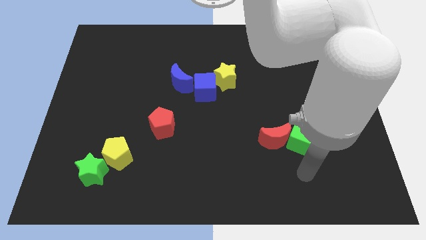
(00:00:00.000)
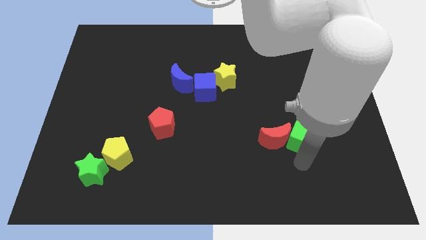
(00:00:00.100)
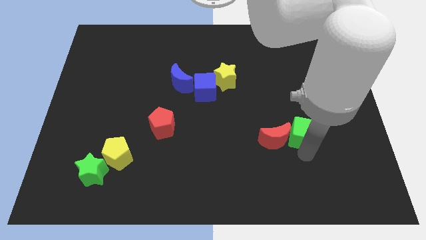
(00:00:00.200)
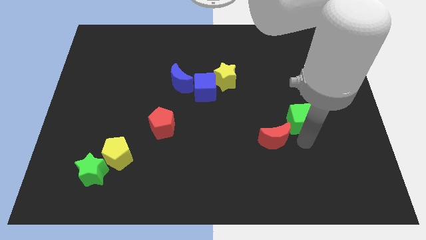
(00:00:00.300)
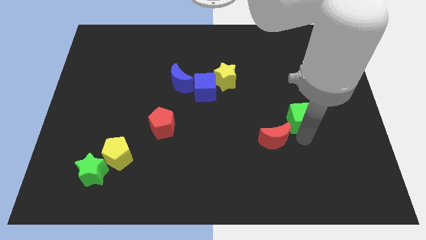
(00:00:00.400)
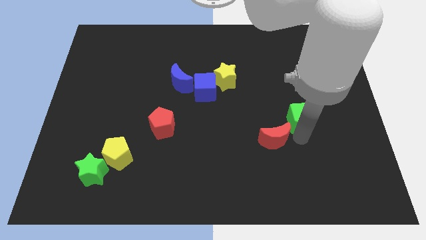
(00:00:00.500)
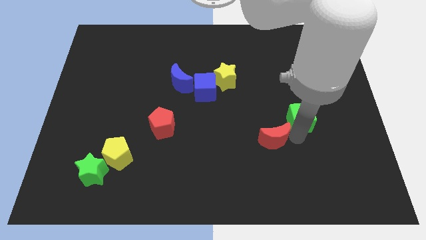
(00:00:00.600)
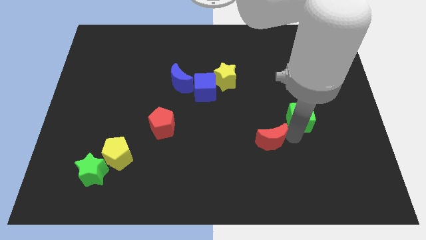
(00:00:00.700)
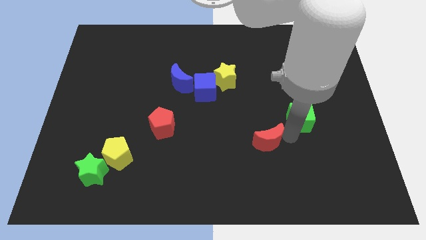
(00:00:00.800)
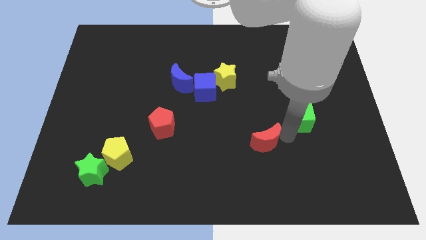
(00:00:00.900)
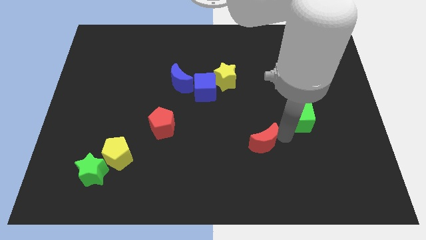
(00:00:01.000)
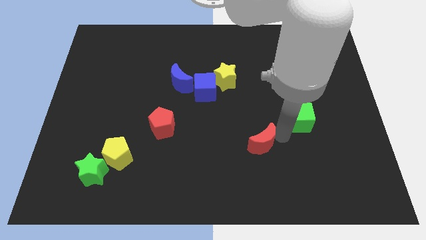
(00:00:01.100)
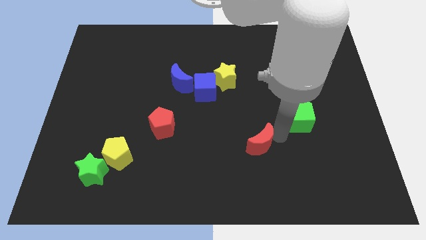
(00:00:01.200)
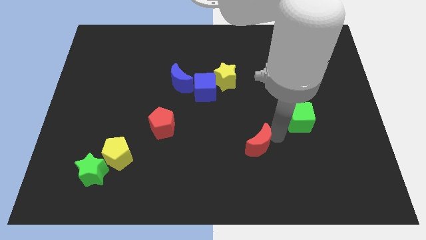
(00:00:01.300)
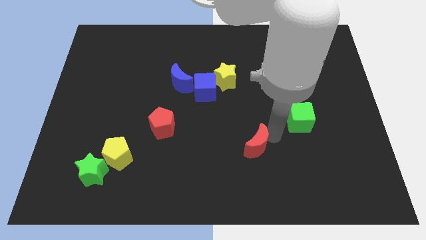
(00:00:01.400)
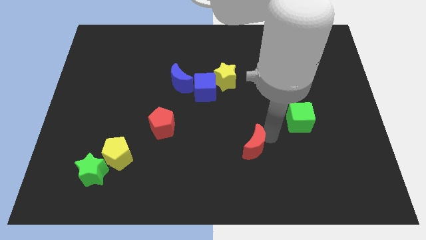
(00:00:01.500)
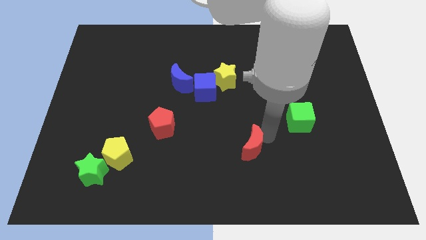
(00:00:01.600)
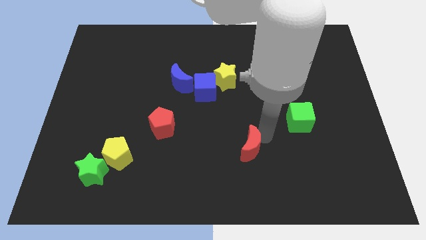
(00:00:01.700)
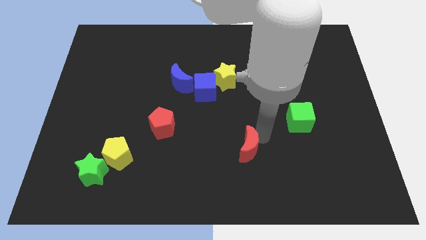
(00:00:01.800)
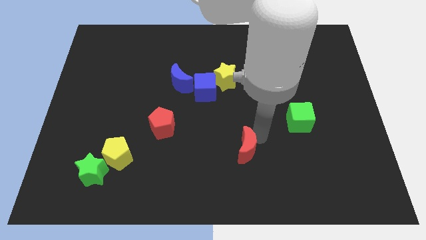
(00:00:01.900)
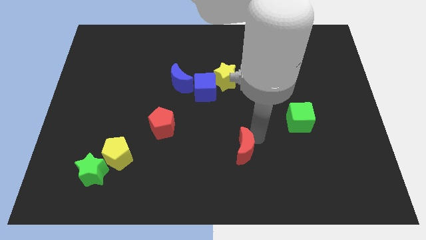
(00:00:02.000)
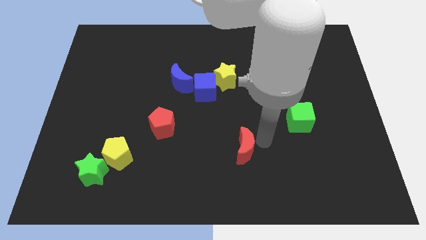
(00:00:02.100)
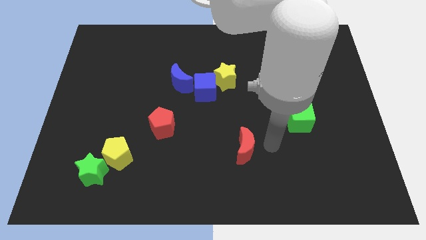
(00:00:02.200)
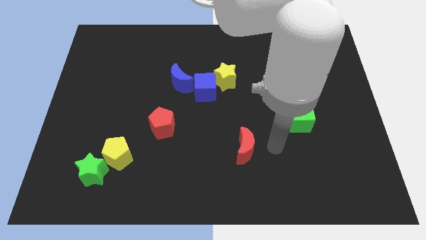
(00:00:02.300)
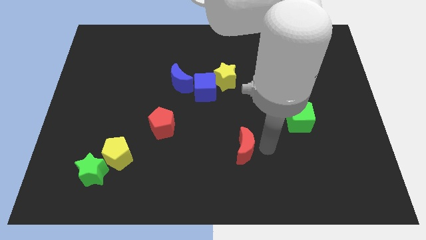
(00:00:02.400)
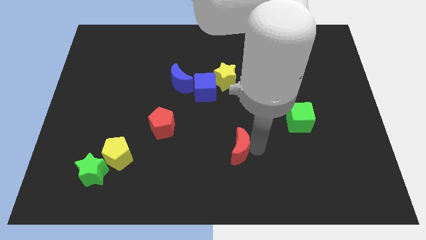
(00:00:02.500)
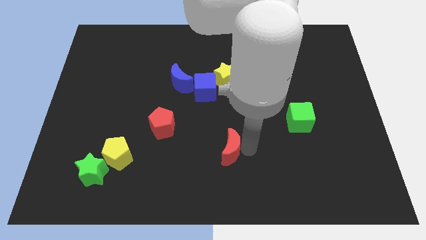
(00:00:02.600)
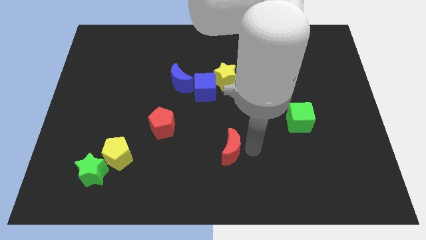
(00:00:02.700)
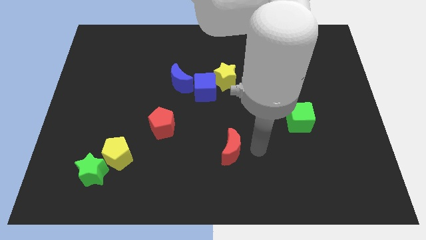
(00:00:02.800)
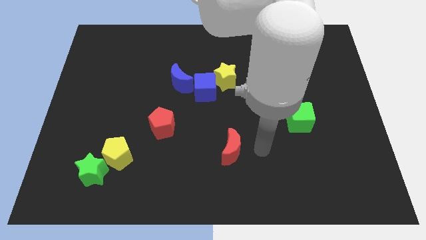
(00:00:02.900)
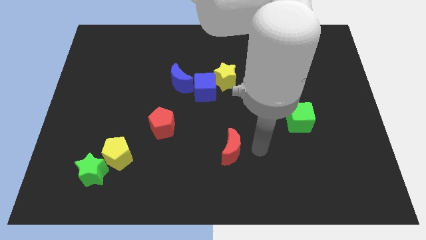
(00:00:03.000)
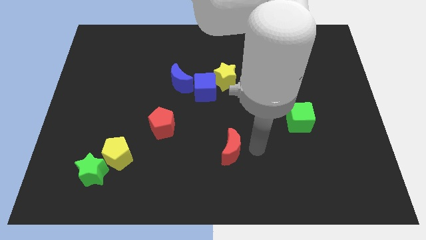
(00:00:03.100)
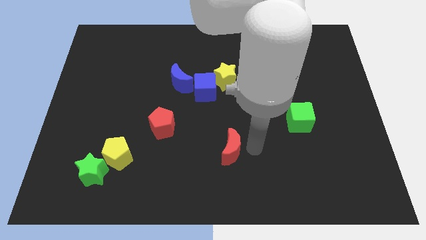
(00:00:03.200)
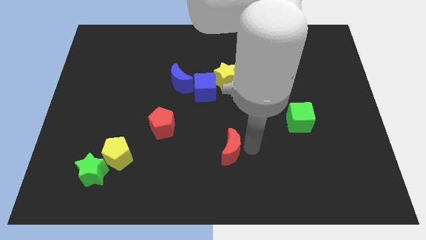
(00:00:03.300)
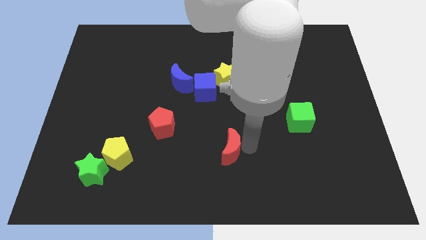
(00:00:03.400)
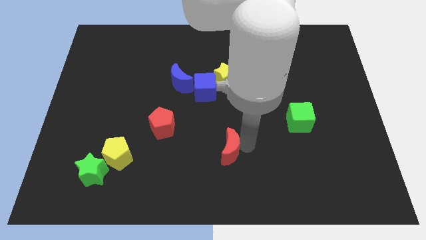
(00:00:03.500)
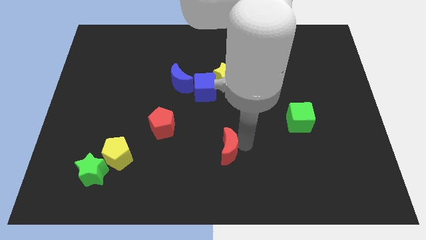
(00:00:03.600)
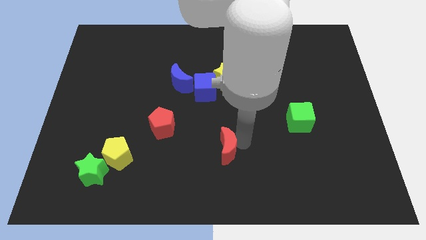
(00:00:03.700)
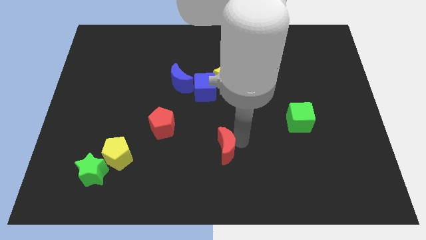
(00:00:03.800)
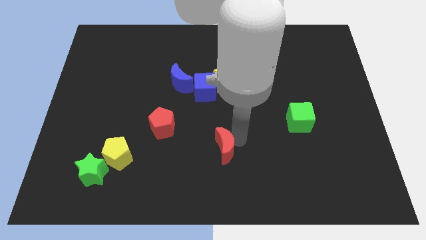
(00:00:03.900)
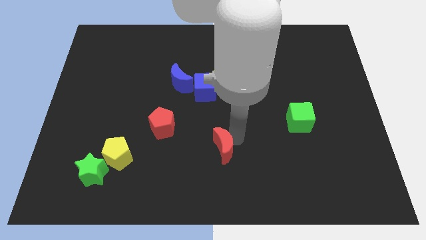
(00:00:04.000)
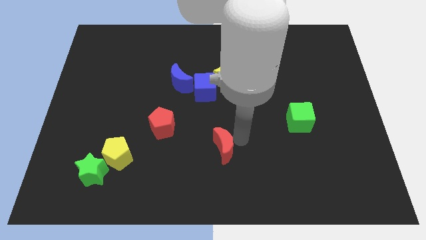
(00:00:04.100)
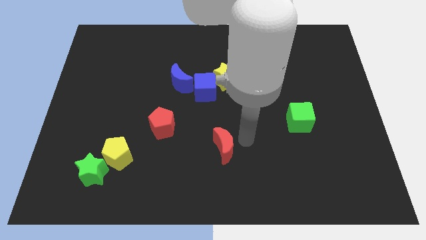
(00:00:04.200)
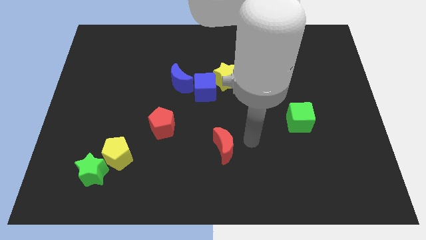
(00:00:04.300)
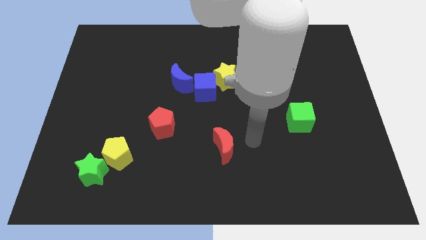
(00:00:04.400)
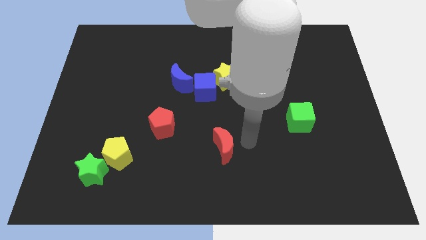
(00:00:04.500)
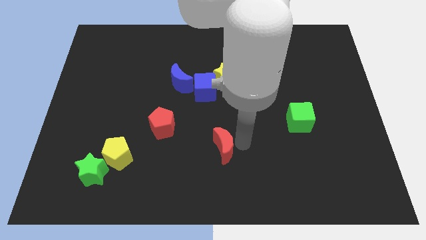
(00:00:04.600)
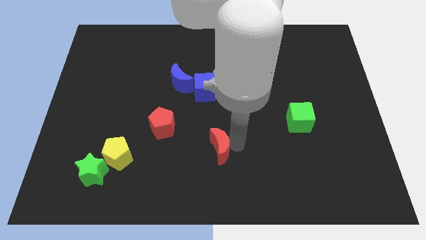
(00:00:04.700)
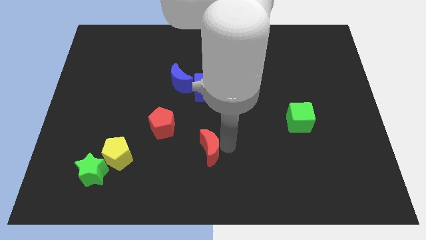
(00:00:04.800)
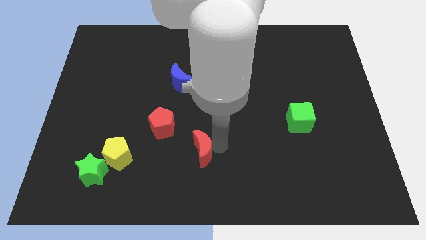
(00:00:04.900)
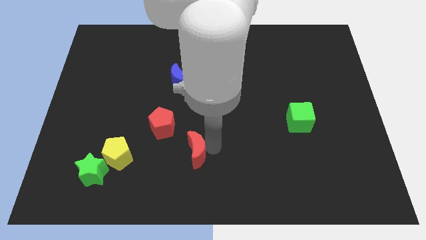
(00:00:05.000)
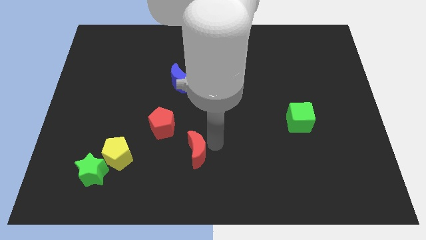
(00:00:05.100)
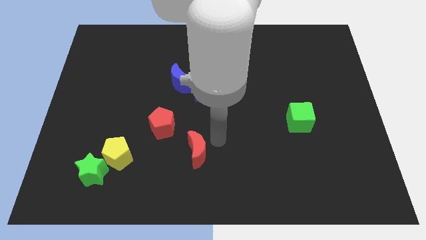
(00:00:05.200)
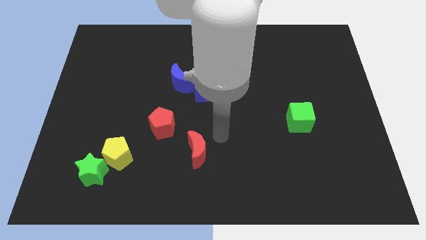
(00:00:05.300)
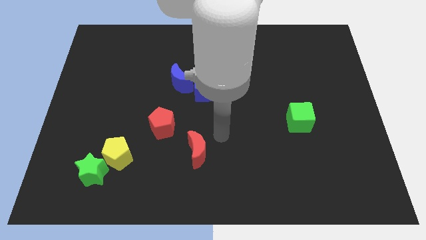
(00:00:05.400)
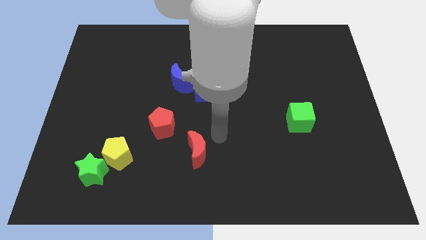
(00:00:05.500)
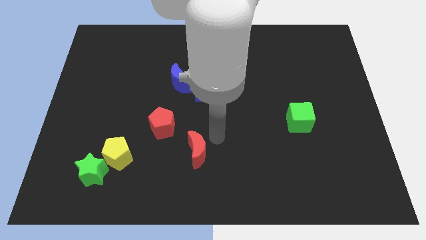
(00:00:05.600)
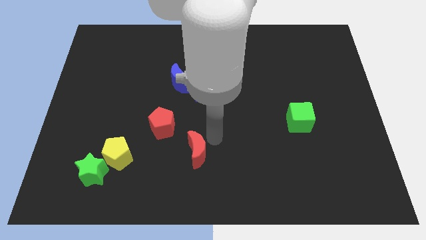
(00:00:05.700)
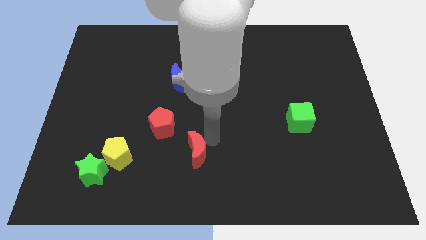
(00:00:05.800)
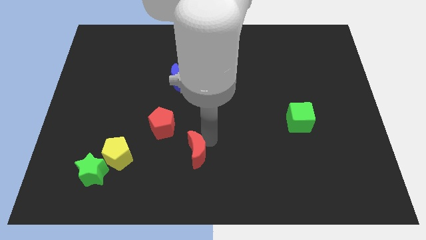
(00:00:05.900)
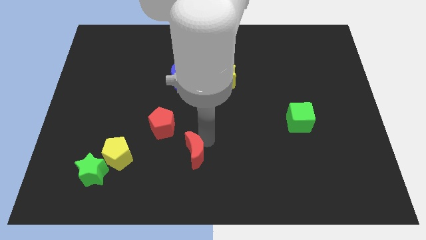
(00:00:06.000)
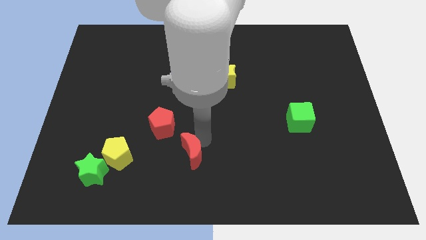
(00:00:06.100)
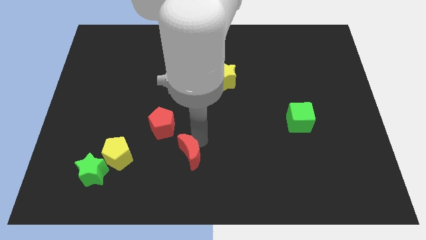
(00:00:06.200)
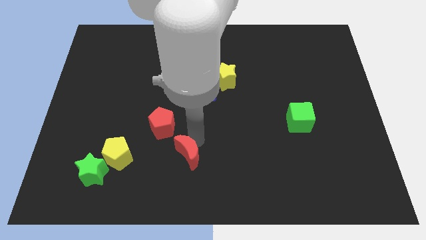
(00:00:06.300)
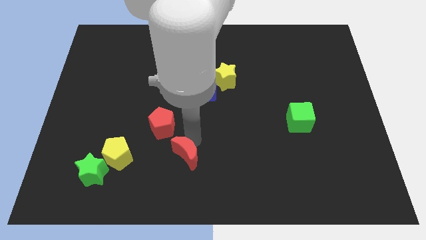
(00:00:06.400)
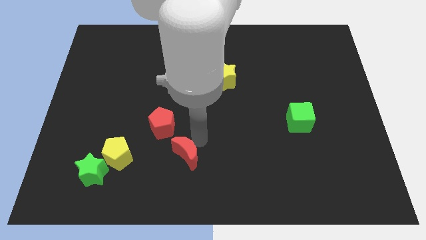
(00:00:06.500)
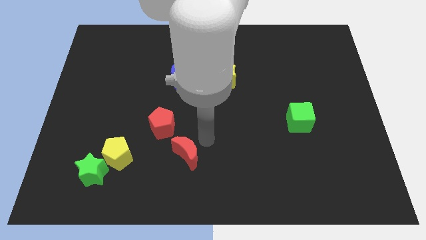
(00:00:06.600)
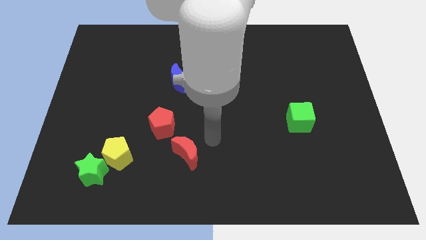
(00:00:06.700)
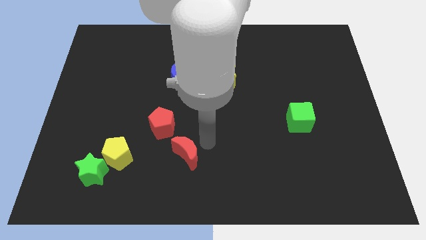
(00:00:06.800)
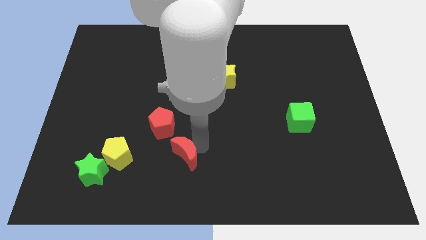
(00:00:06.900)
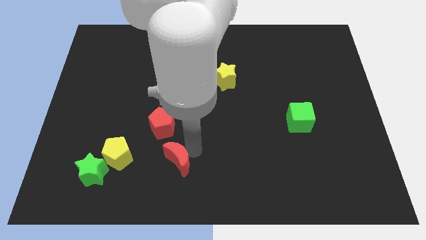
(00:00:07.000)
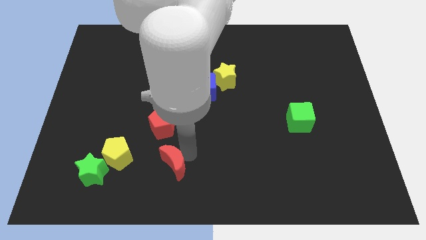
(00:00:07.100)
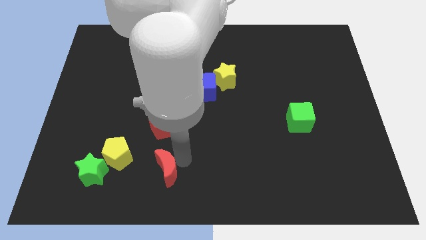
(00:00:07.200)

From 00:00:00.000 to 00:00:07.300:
put the red moon to the right side of the green star
